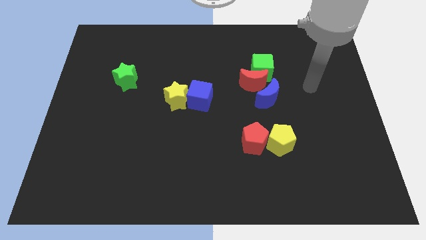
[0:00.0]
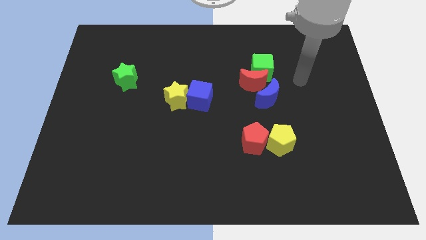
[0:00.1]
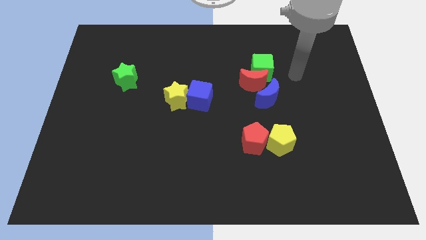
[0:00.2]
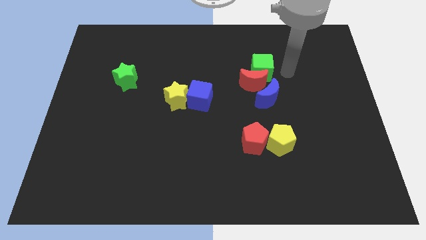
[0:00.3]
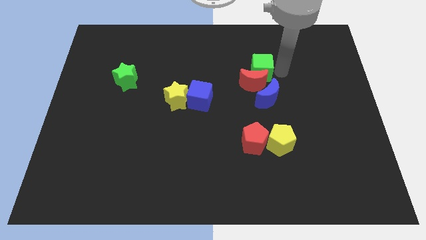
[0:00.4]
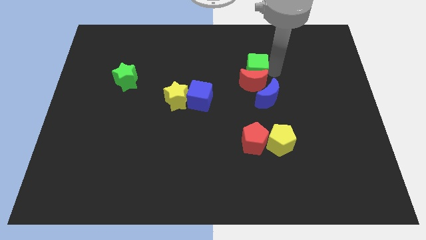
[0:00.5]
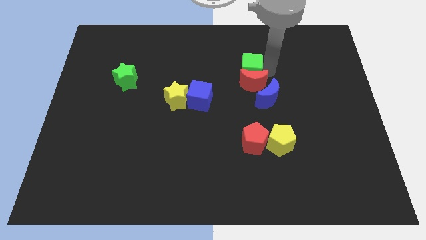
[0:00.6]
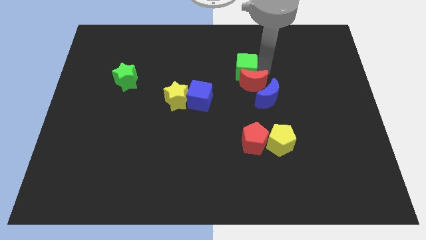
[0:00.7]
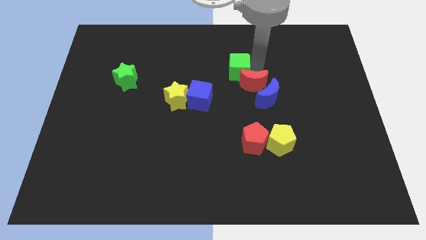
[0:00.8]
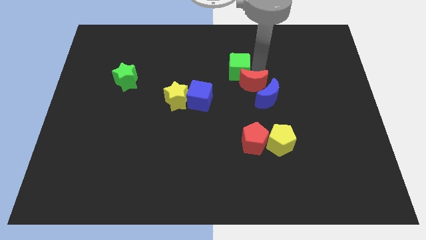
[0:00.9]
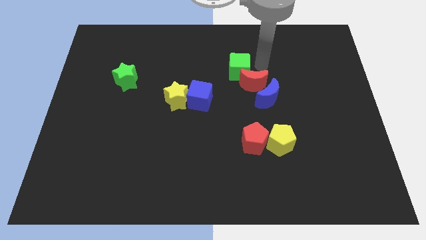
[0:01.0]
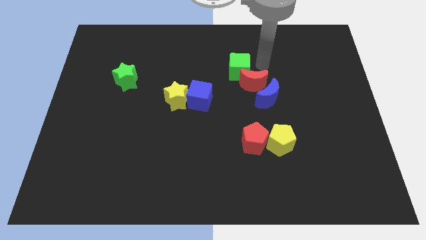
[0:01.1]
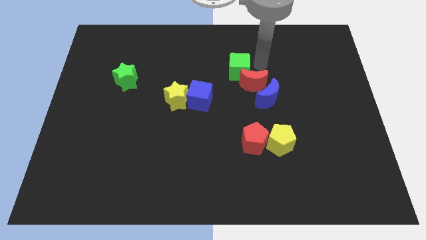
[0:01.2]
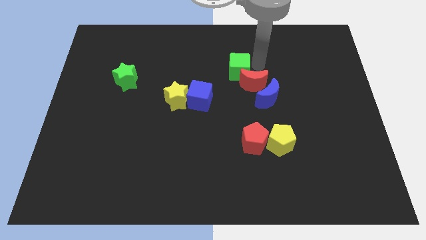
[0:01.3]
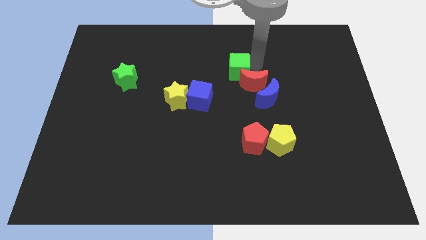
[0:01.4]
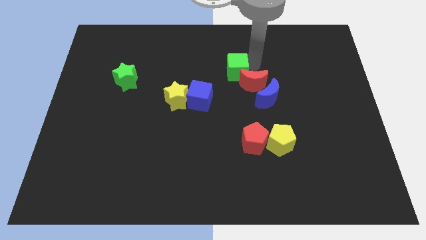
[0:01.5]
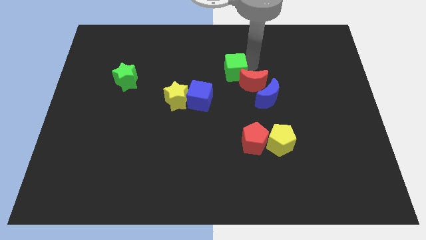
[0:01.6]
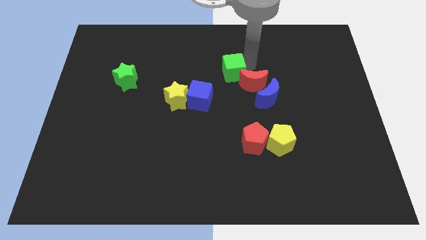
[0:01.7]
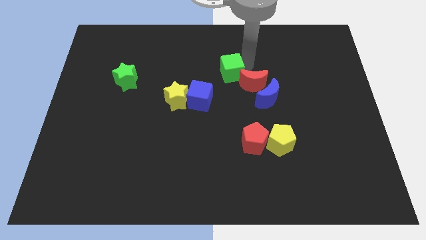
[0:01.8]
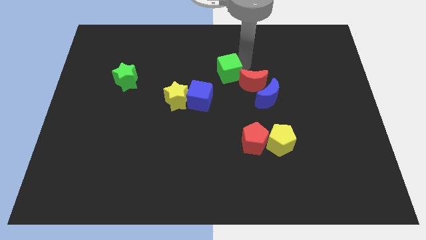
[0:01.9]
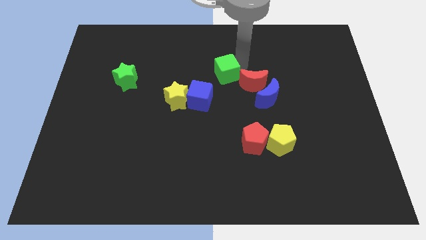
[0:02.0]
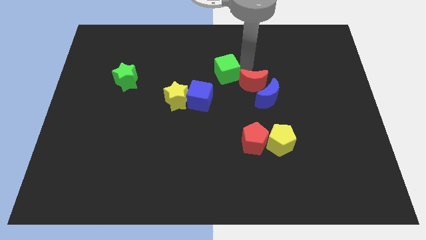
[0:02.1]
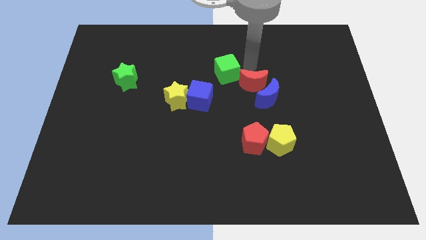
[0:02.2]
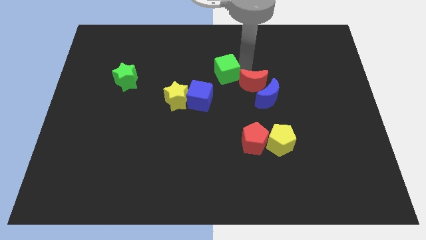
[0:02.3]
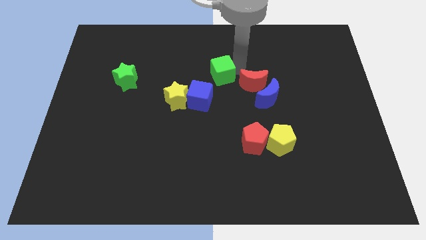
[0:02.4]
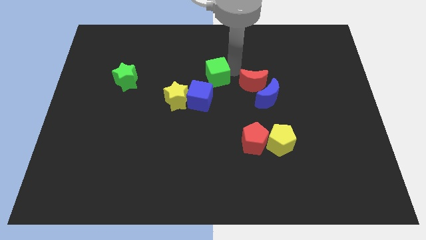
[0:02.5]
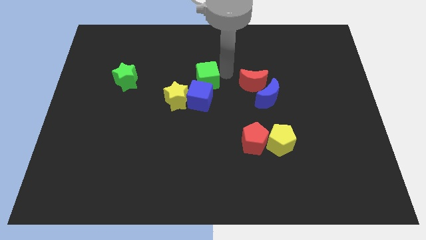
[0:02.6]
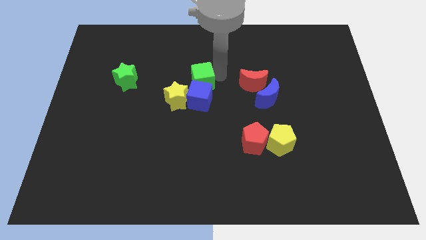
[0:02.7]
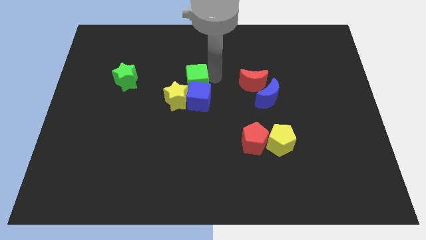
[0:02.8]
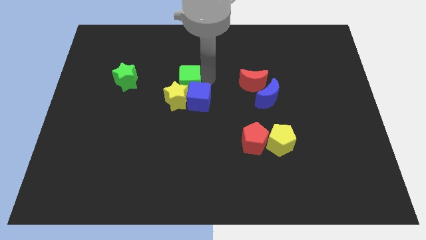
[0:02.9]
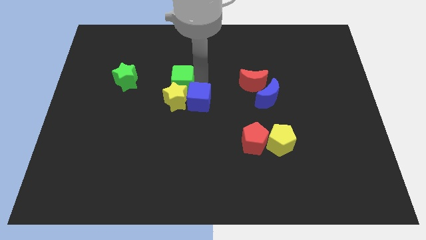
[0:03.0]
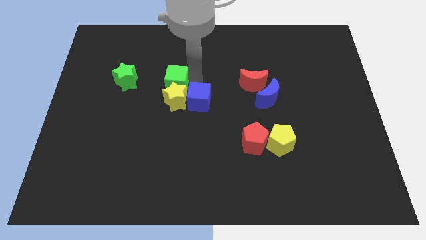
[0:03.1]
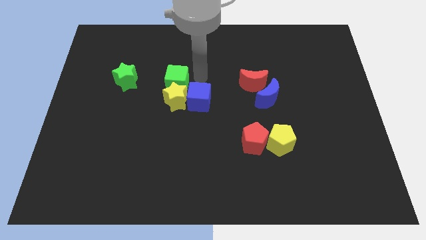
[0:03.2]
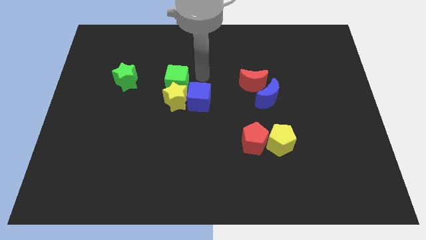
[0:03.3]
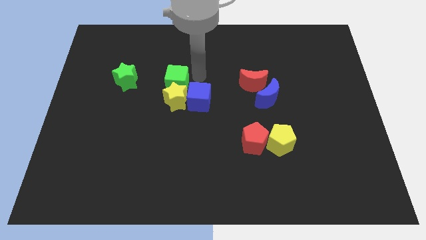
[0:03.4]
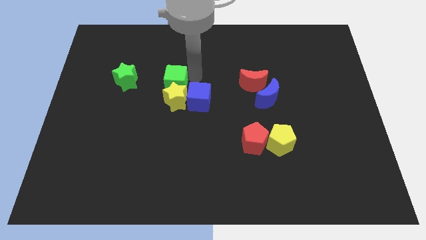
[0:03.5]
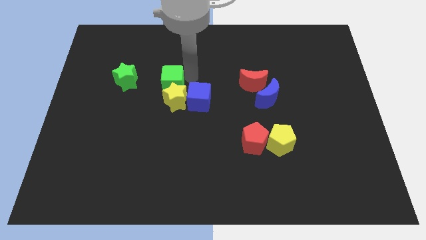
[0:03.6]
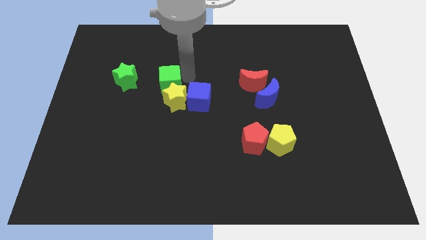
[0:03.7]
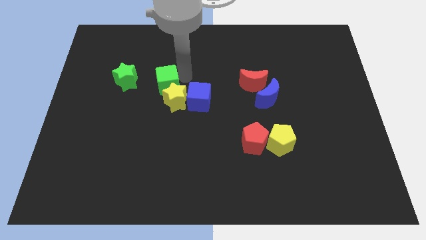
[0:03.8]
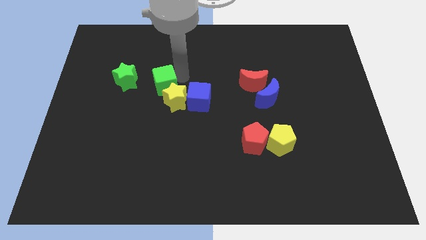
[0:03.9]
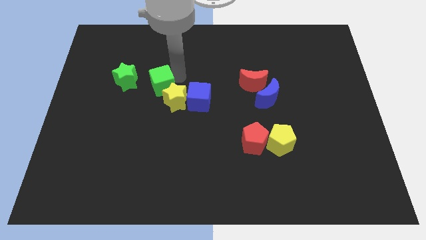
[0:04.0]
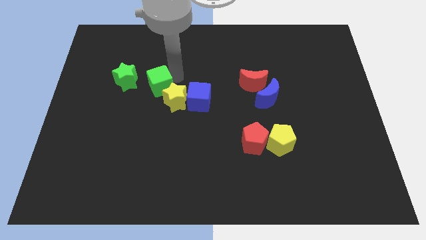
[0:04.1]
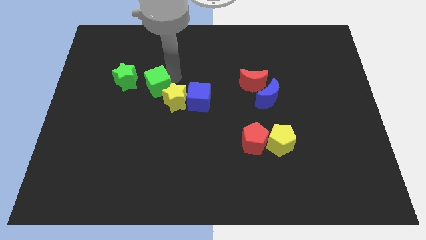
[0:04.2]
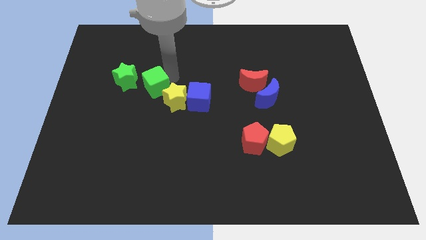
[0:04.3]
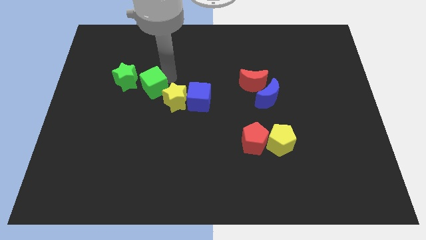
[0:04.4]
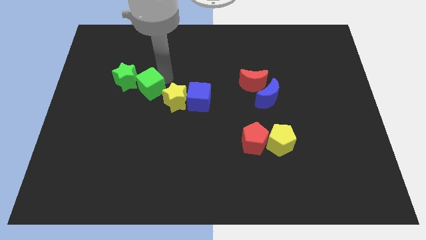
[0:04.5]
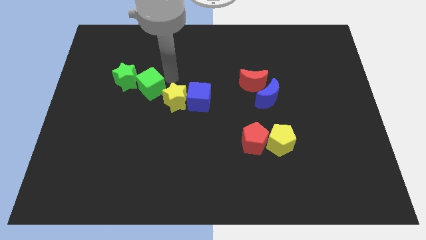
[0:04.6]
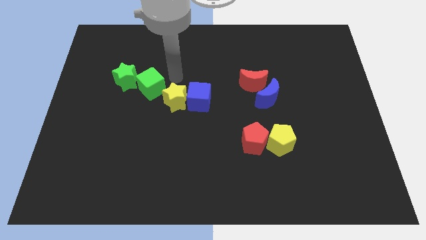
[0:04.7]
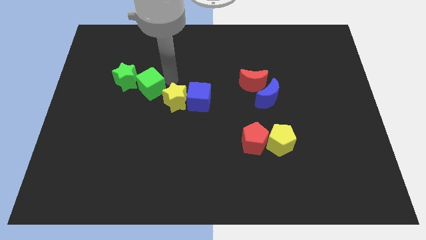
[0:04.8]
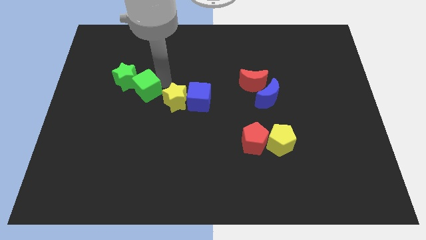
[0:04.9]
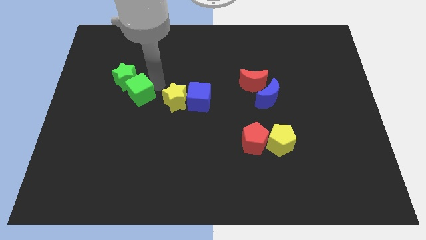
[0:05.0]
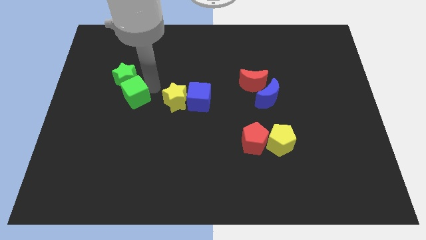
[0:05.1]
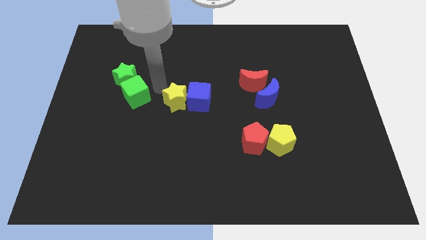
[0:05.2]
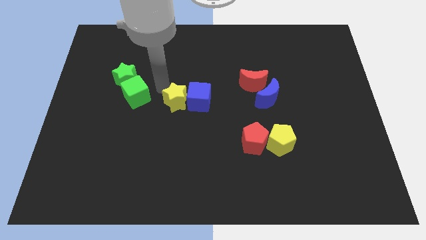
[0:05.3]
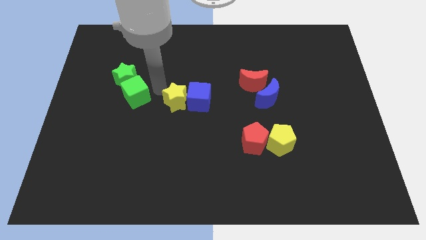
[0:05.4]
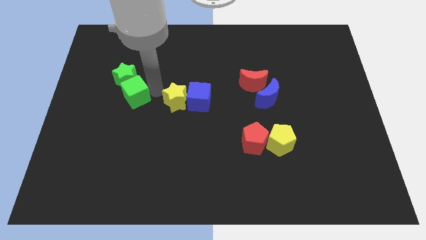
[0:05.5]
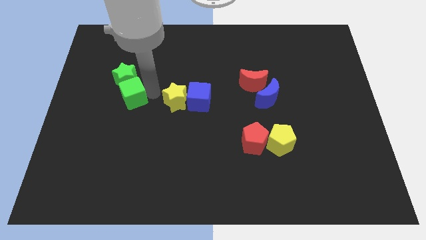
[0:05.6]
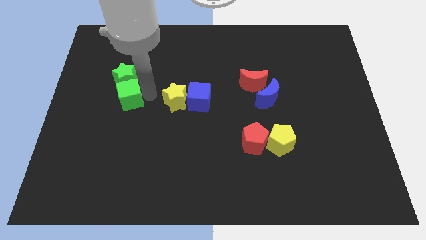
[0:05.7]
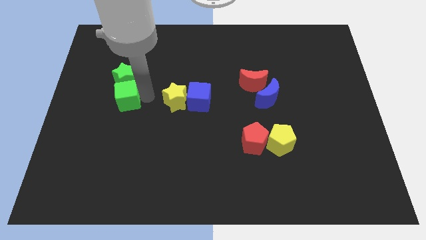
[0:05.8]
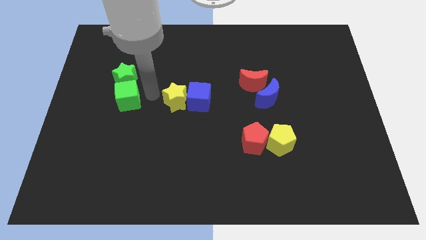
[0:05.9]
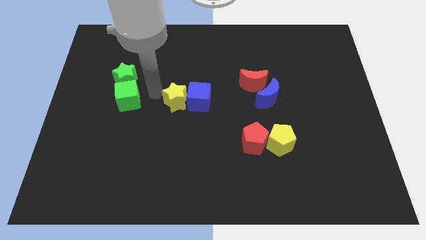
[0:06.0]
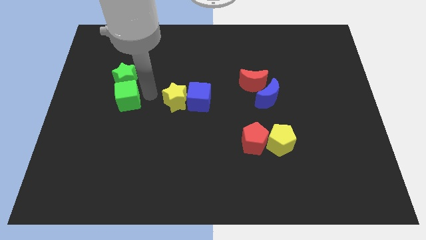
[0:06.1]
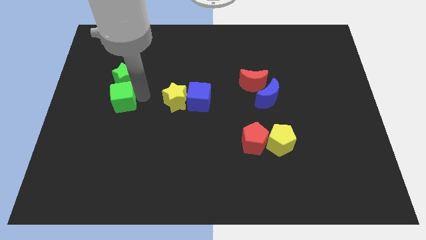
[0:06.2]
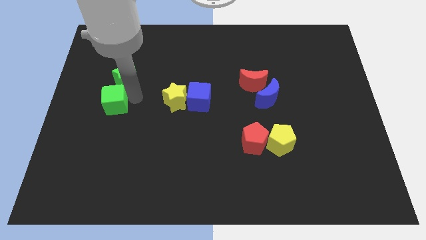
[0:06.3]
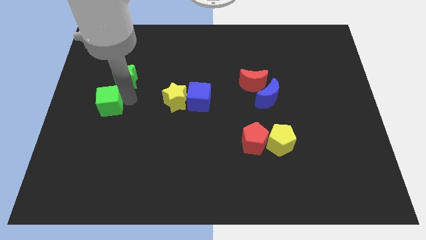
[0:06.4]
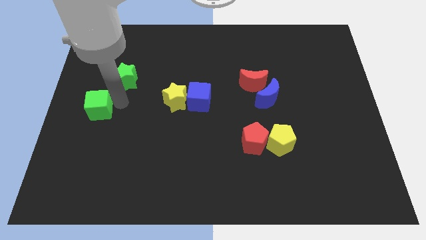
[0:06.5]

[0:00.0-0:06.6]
move the green cube to the center left
